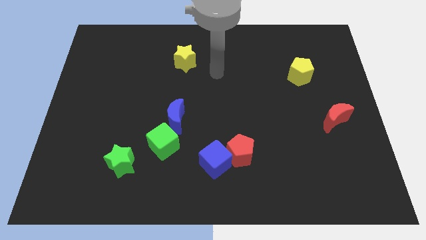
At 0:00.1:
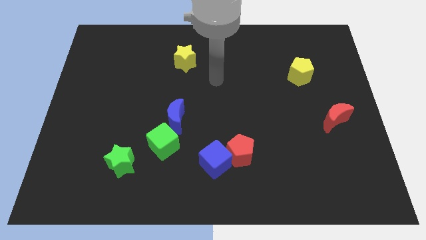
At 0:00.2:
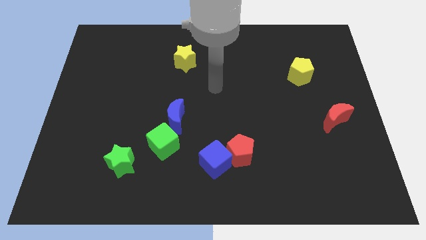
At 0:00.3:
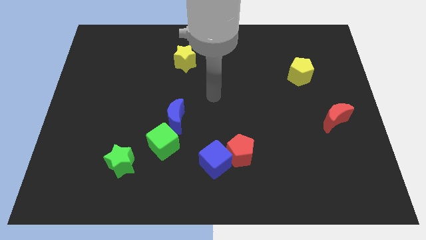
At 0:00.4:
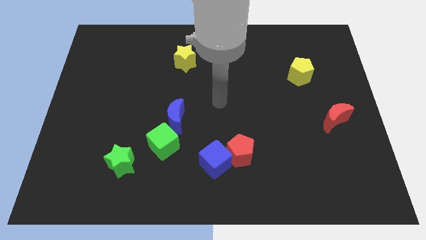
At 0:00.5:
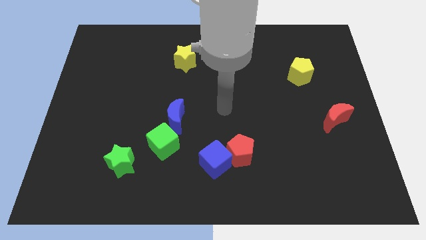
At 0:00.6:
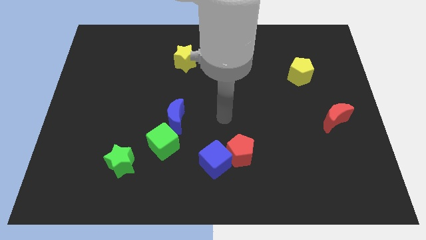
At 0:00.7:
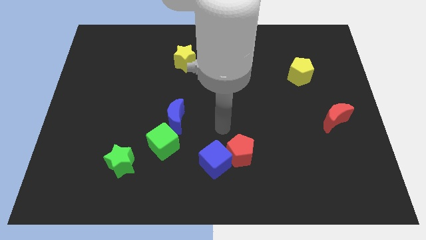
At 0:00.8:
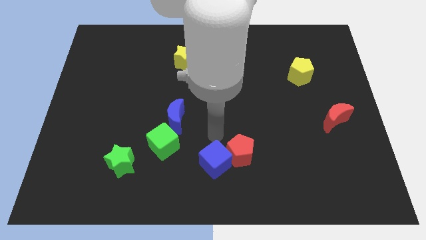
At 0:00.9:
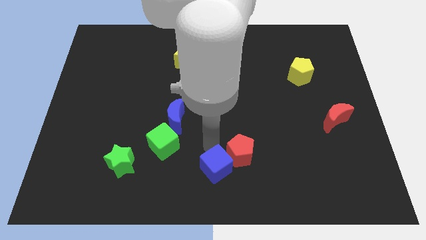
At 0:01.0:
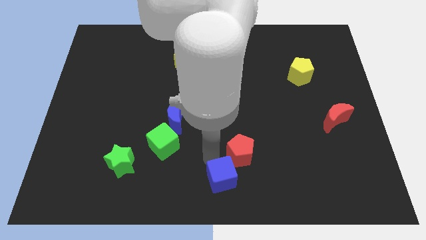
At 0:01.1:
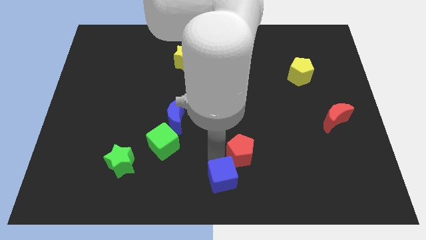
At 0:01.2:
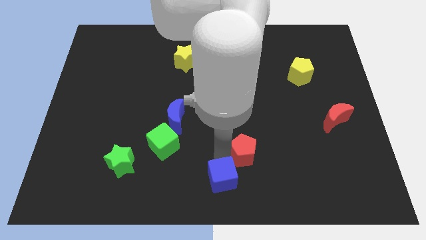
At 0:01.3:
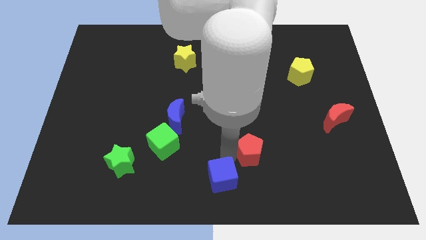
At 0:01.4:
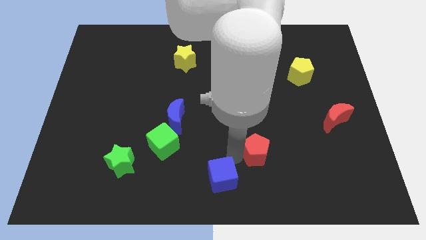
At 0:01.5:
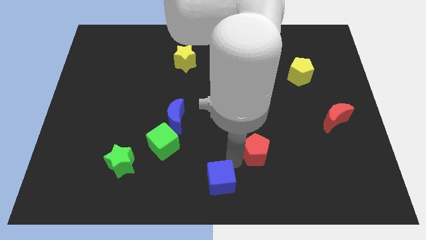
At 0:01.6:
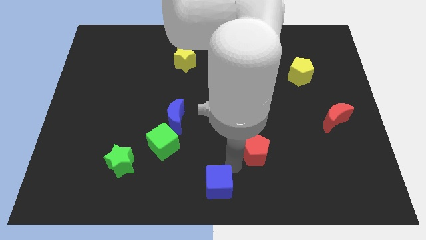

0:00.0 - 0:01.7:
move the red pentagon away from the blue cube

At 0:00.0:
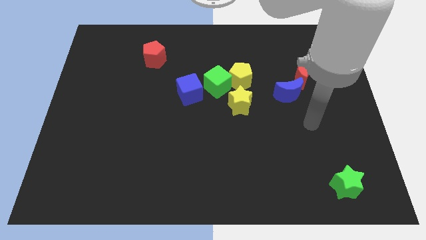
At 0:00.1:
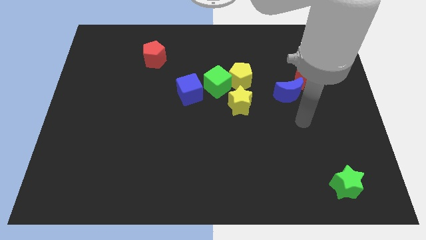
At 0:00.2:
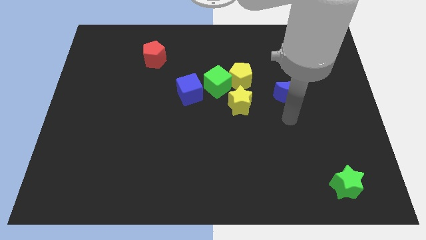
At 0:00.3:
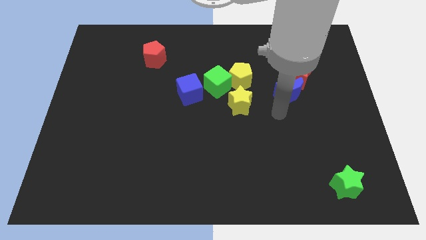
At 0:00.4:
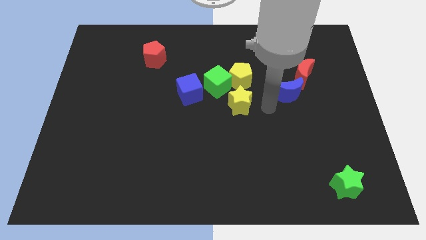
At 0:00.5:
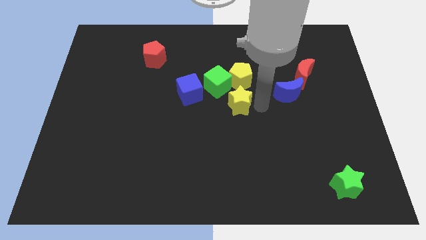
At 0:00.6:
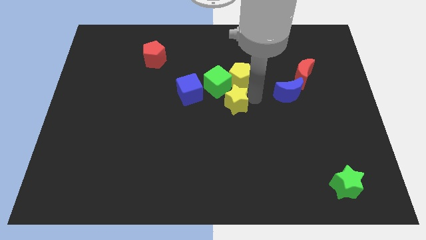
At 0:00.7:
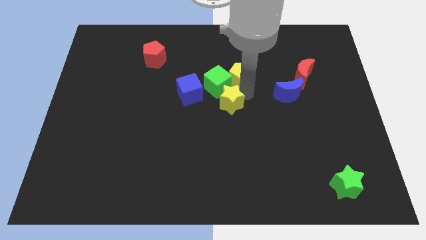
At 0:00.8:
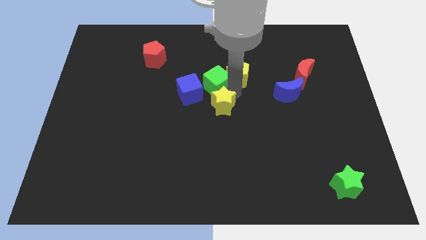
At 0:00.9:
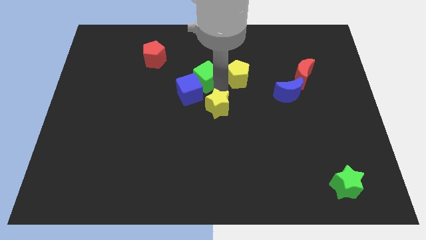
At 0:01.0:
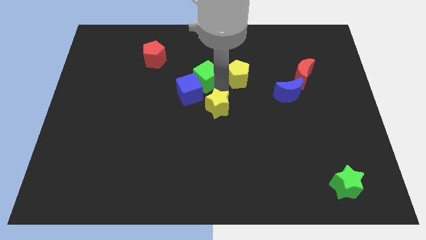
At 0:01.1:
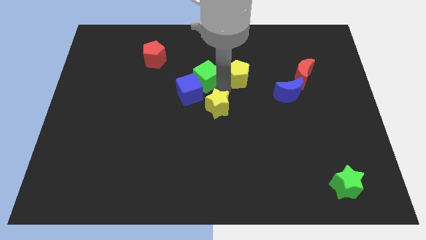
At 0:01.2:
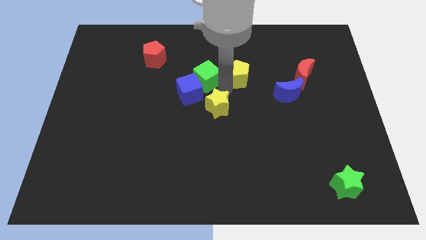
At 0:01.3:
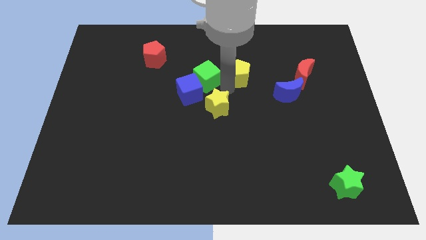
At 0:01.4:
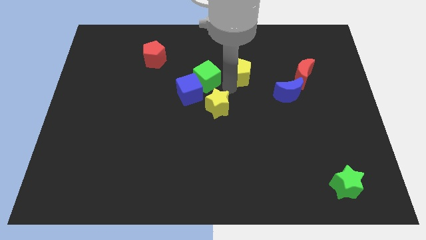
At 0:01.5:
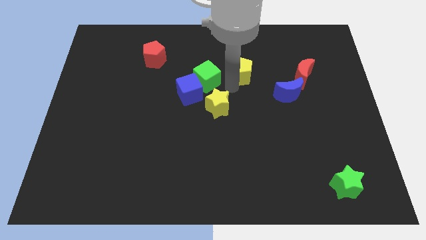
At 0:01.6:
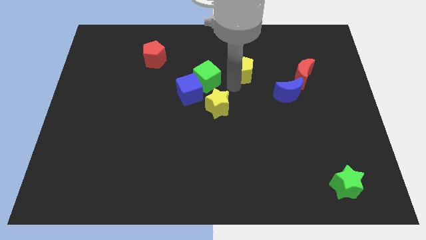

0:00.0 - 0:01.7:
move the yellow pentagon away from the green cube and yellow star

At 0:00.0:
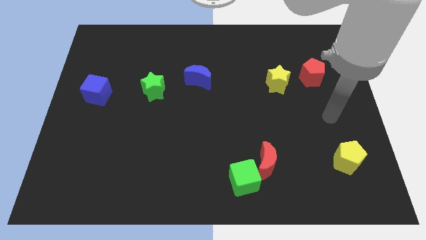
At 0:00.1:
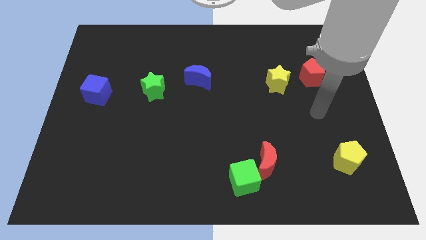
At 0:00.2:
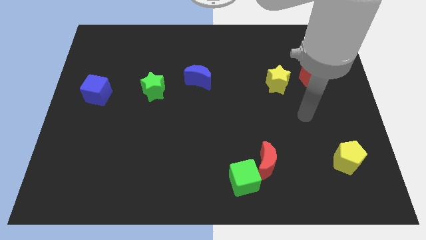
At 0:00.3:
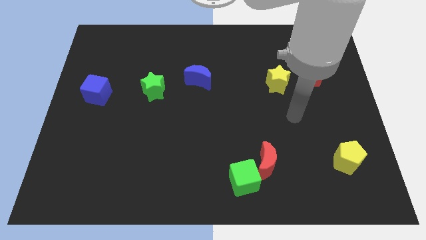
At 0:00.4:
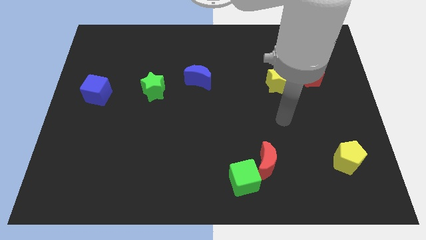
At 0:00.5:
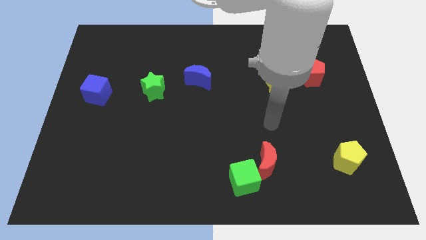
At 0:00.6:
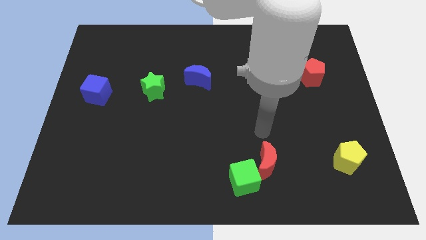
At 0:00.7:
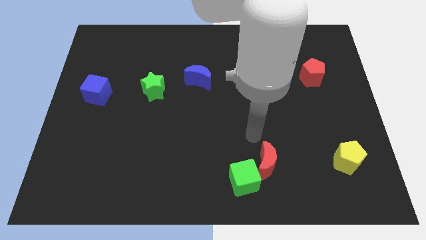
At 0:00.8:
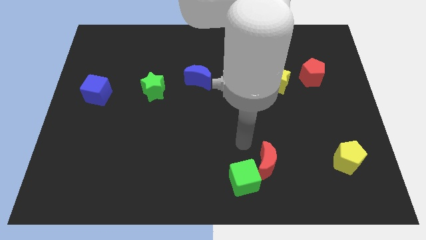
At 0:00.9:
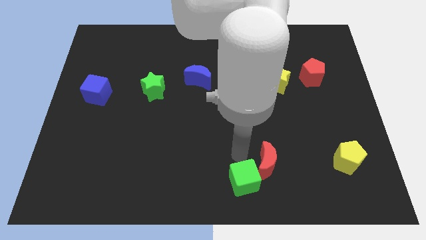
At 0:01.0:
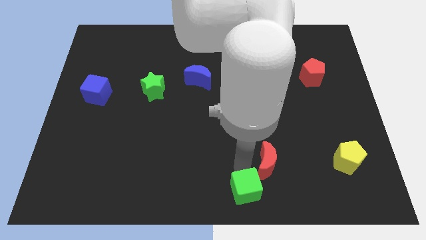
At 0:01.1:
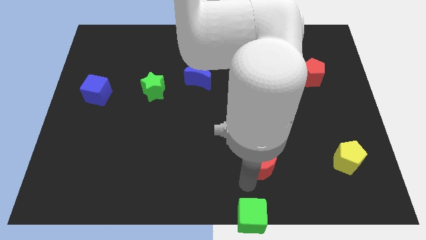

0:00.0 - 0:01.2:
separate the red moon from the green cube

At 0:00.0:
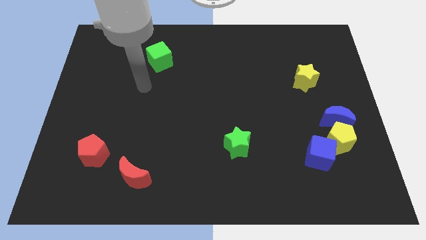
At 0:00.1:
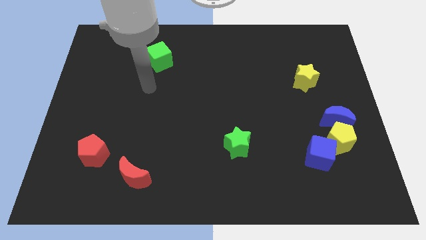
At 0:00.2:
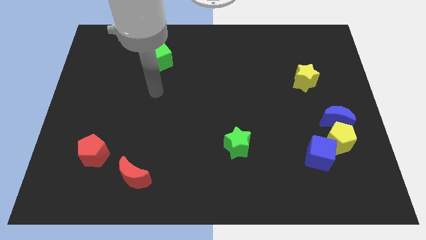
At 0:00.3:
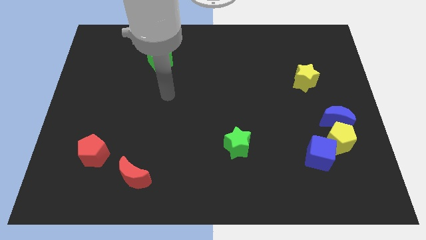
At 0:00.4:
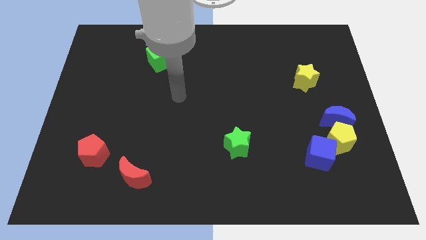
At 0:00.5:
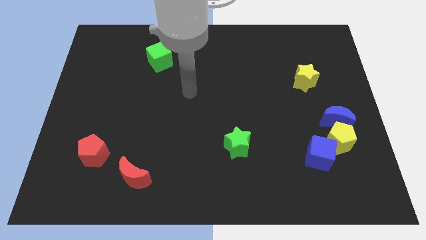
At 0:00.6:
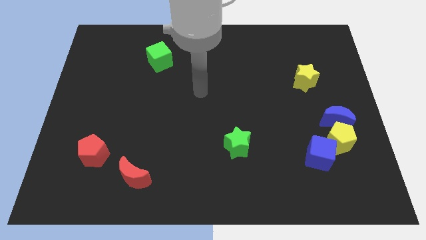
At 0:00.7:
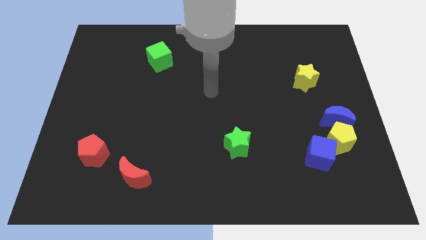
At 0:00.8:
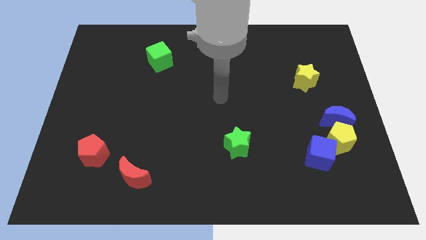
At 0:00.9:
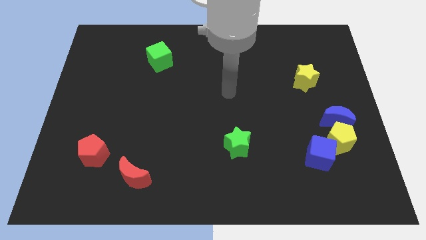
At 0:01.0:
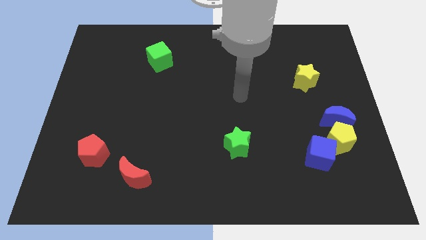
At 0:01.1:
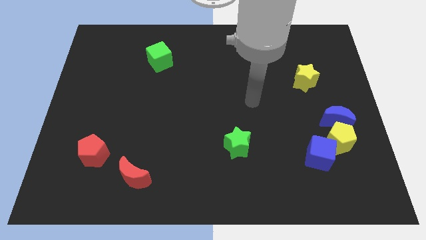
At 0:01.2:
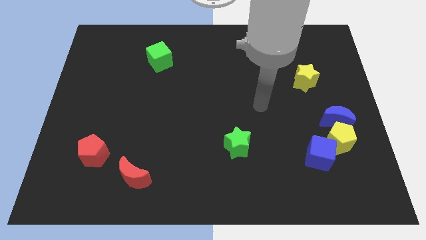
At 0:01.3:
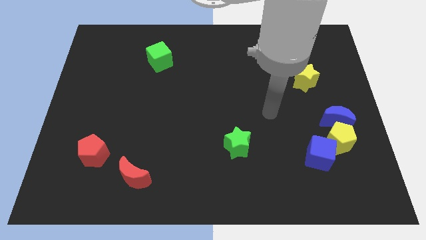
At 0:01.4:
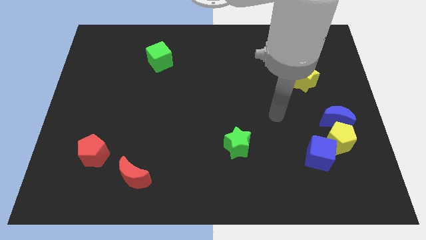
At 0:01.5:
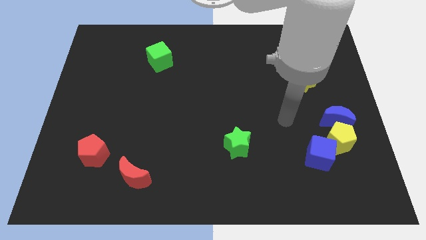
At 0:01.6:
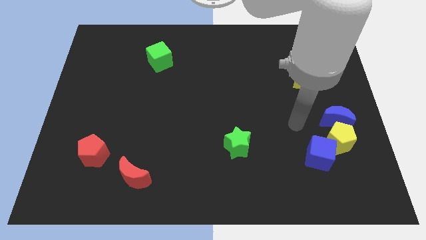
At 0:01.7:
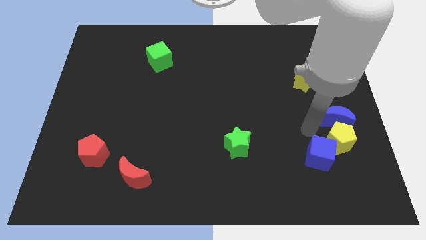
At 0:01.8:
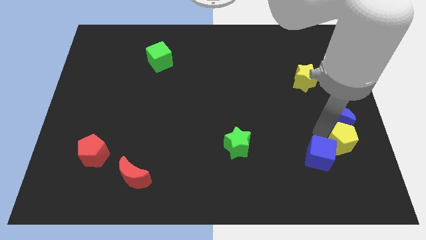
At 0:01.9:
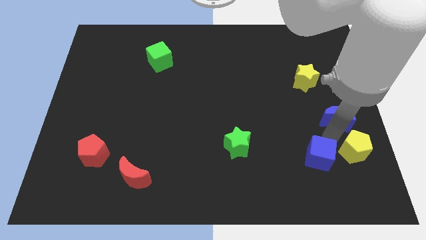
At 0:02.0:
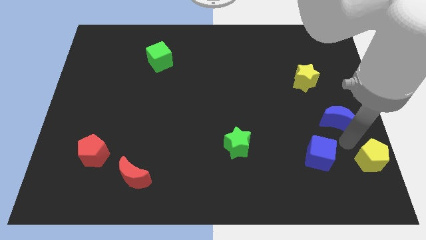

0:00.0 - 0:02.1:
separate the blue moon from the yellow pentagon

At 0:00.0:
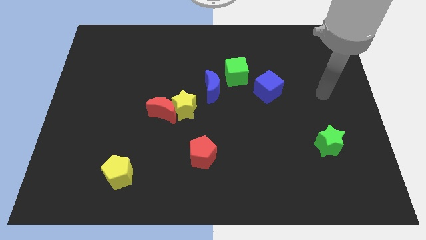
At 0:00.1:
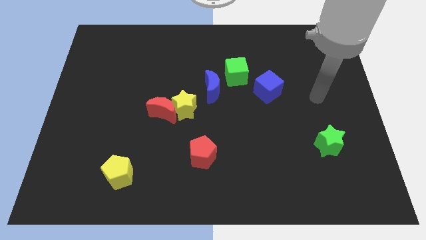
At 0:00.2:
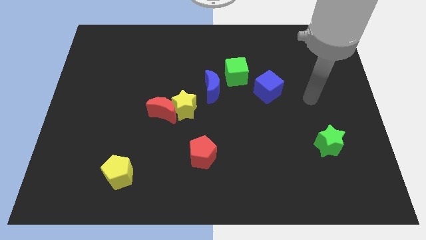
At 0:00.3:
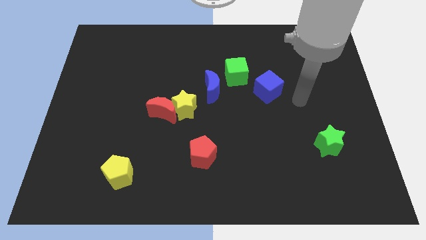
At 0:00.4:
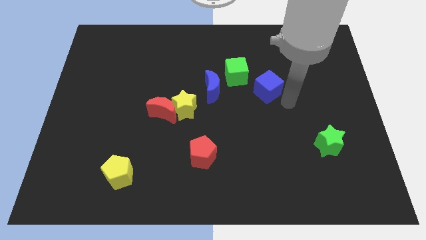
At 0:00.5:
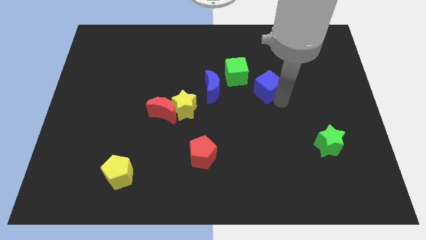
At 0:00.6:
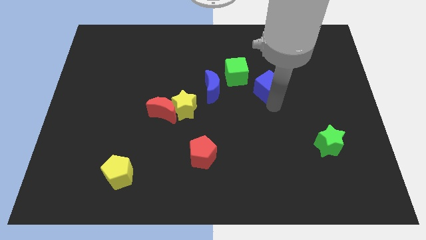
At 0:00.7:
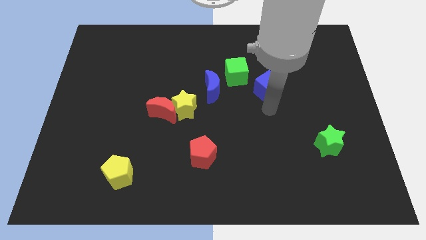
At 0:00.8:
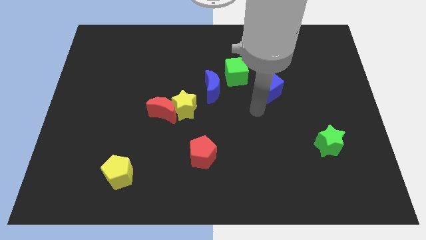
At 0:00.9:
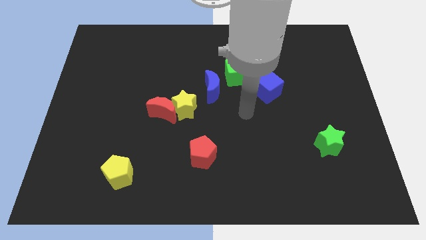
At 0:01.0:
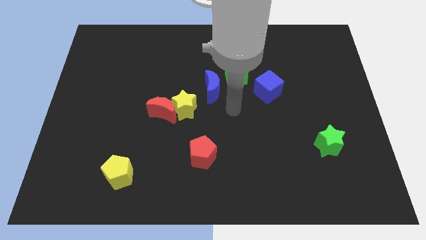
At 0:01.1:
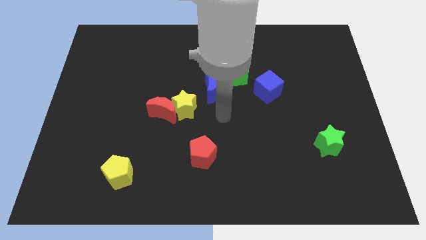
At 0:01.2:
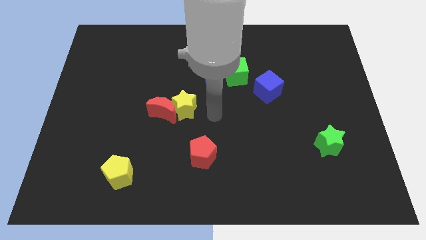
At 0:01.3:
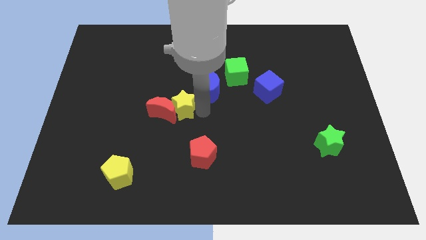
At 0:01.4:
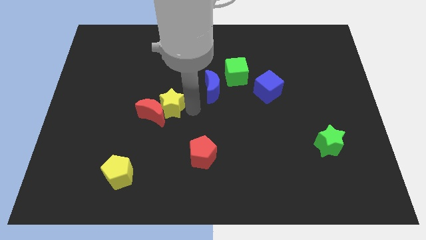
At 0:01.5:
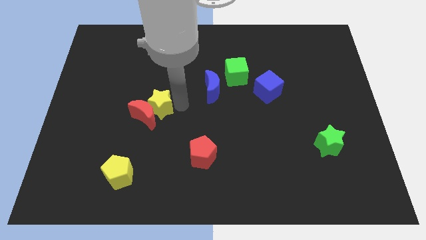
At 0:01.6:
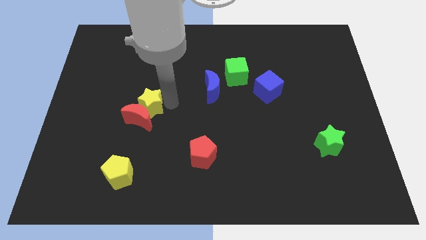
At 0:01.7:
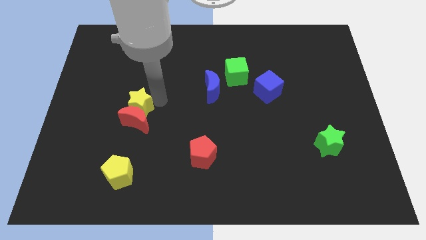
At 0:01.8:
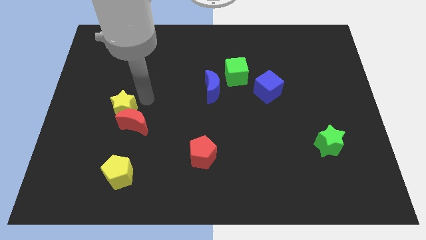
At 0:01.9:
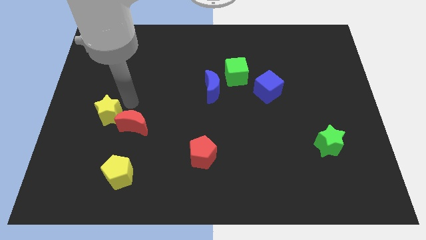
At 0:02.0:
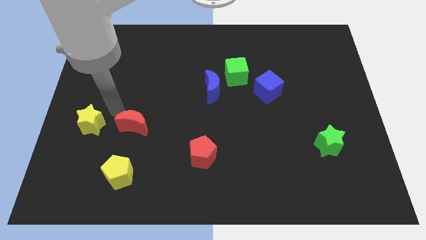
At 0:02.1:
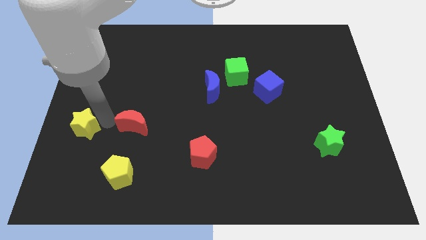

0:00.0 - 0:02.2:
pull the red moon apart from the yellow star

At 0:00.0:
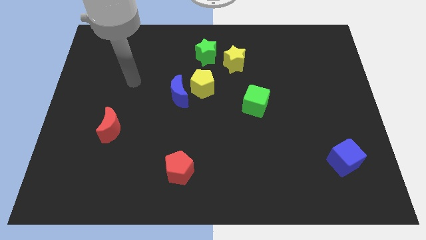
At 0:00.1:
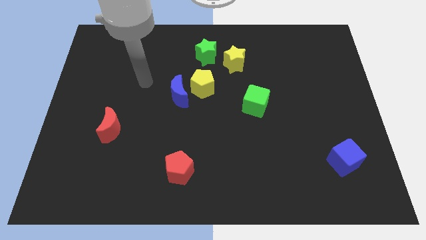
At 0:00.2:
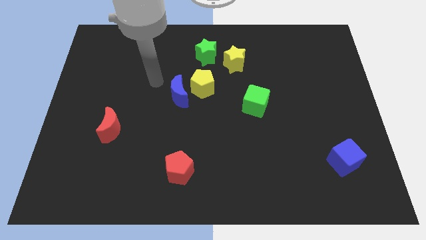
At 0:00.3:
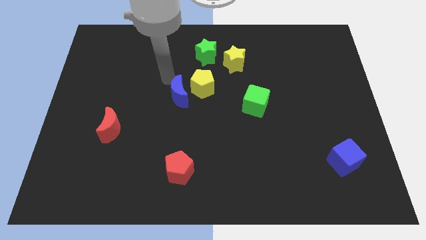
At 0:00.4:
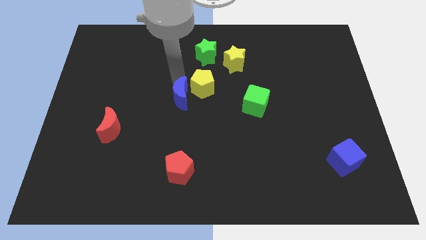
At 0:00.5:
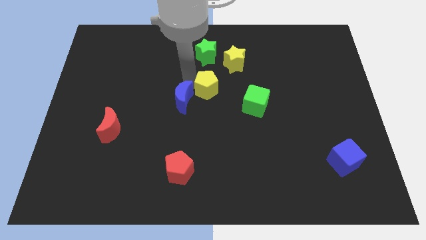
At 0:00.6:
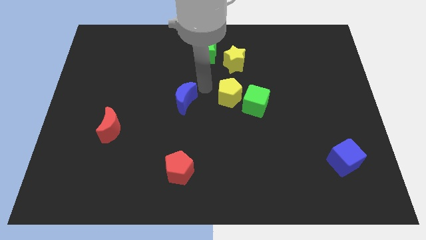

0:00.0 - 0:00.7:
pull the blue moon apart from the yellow pentagon
